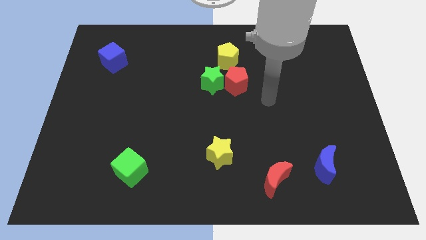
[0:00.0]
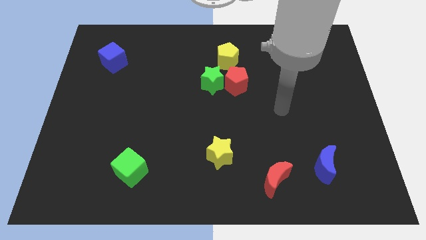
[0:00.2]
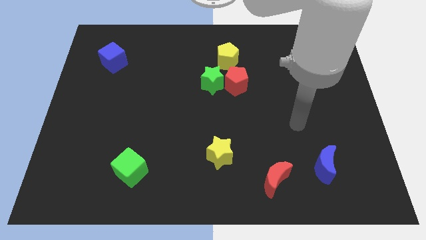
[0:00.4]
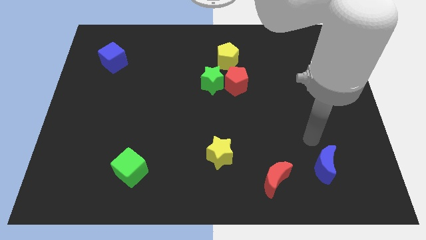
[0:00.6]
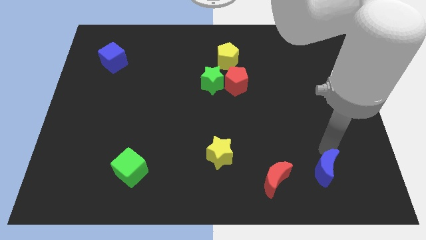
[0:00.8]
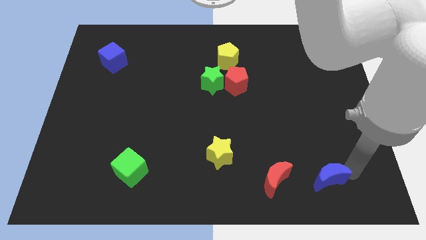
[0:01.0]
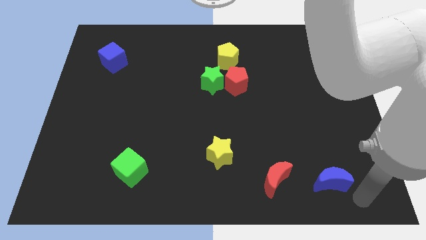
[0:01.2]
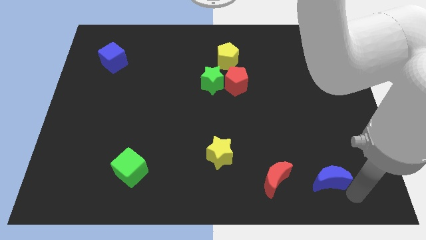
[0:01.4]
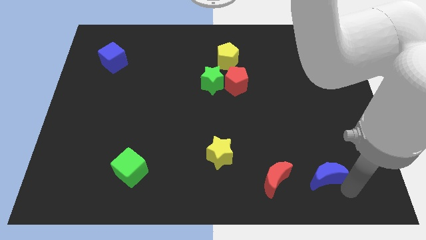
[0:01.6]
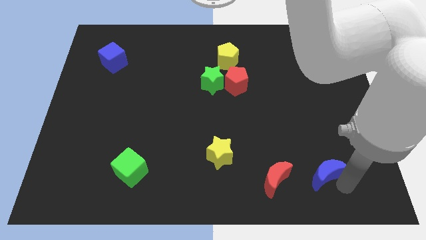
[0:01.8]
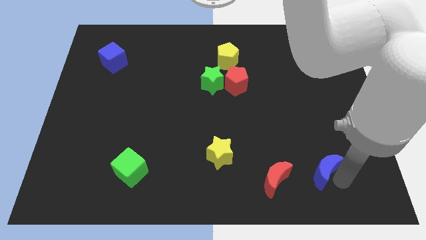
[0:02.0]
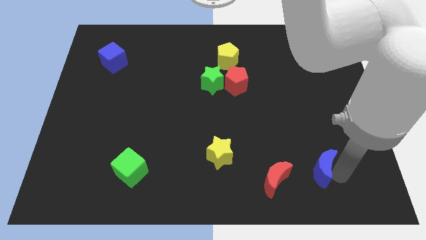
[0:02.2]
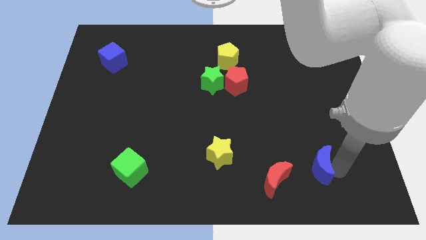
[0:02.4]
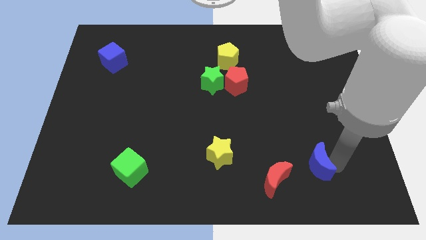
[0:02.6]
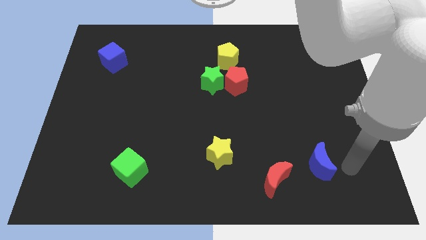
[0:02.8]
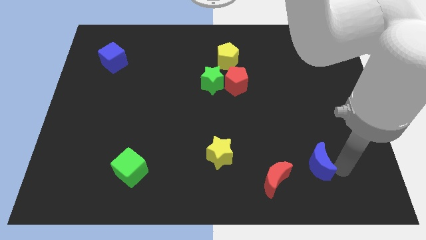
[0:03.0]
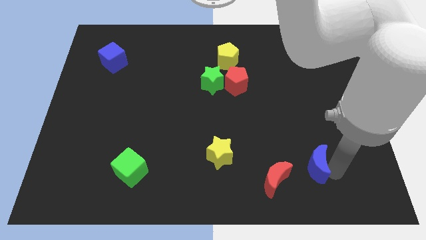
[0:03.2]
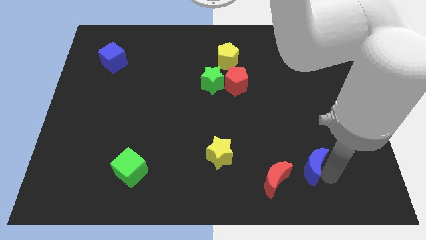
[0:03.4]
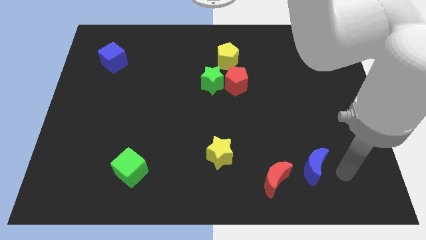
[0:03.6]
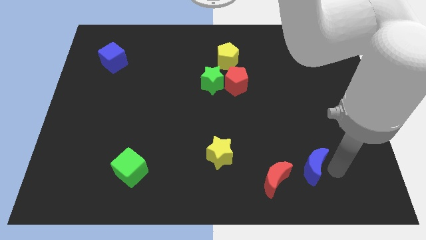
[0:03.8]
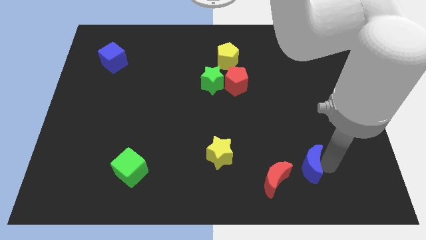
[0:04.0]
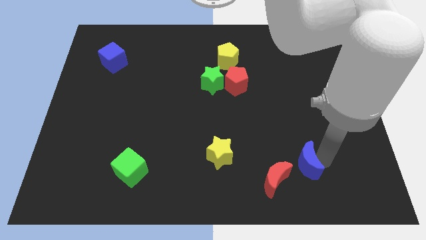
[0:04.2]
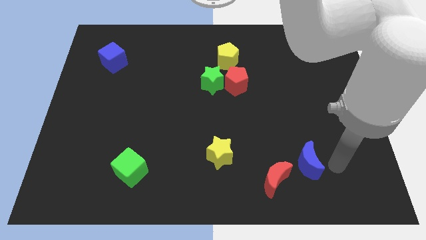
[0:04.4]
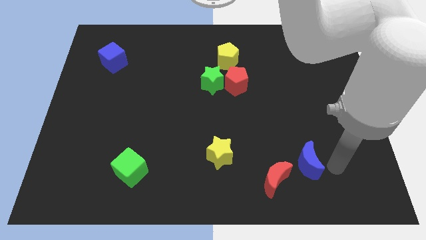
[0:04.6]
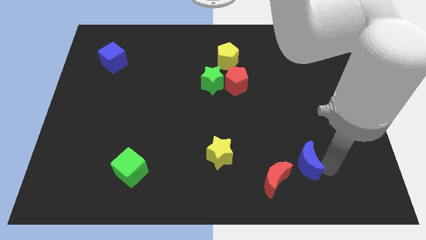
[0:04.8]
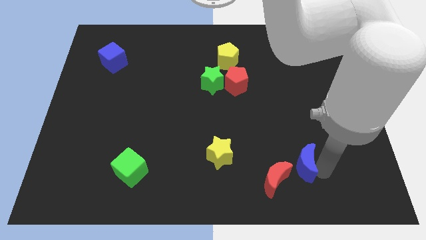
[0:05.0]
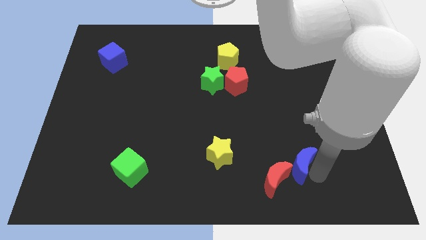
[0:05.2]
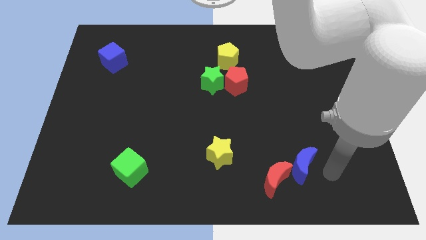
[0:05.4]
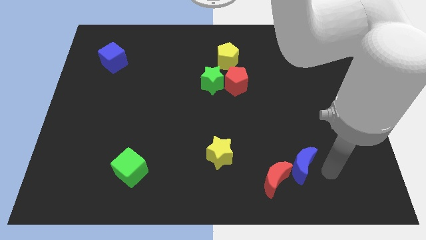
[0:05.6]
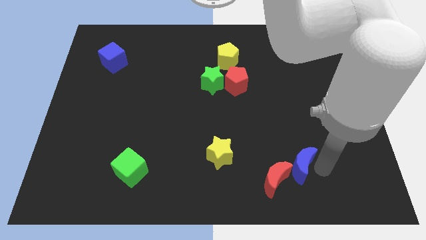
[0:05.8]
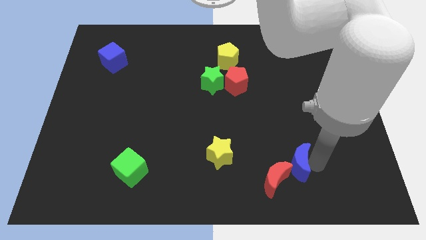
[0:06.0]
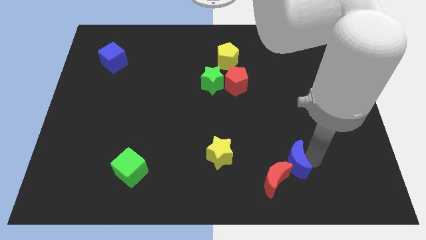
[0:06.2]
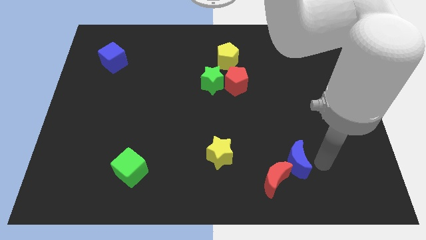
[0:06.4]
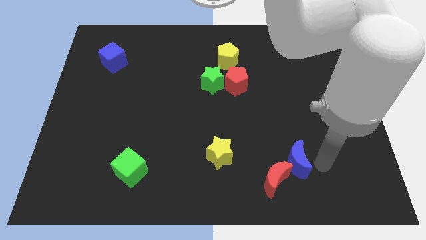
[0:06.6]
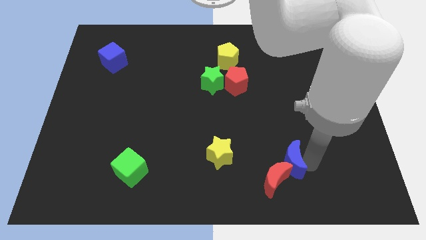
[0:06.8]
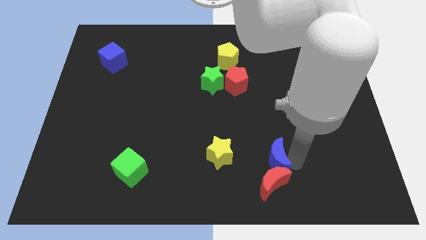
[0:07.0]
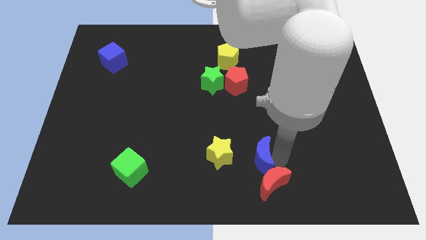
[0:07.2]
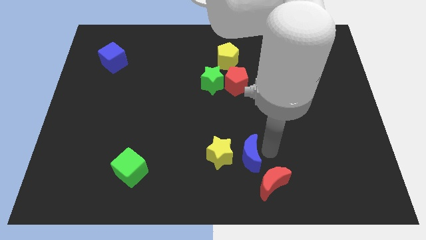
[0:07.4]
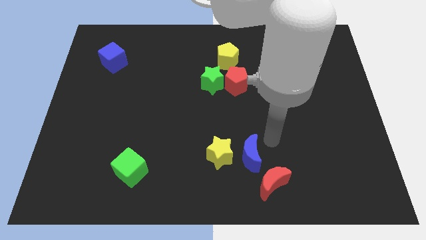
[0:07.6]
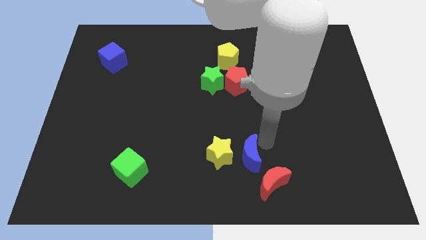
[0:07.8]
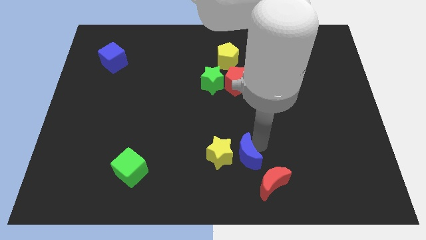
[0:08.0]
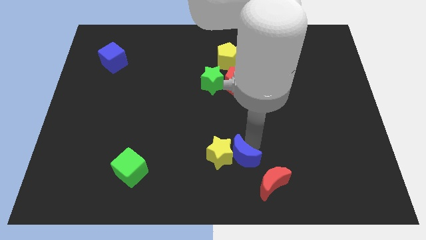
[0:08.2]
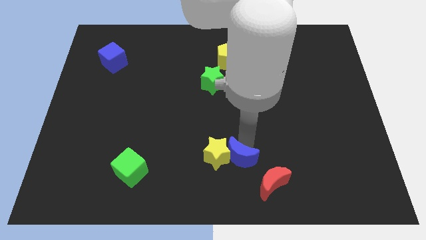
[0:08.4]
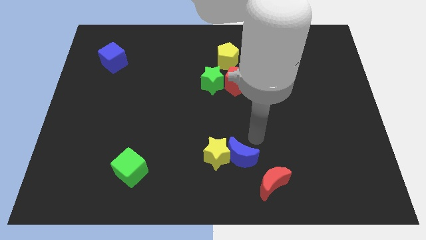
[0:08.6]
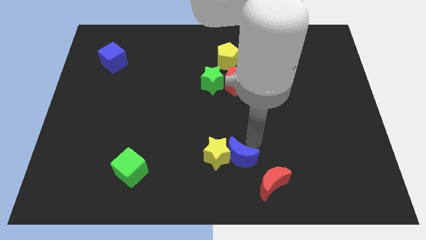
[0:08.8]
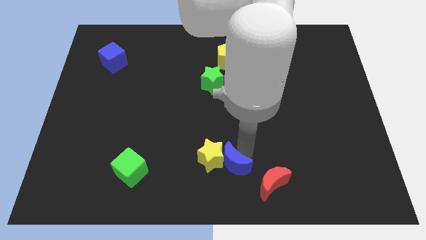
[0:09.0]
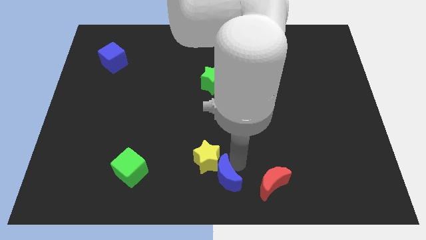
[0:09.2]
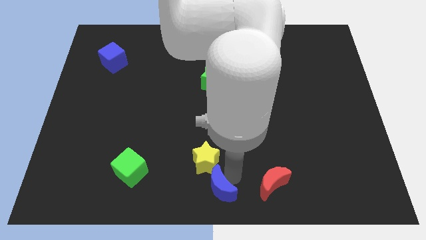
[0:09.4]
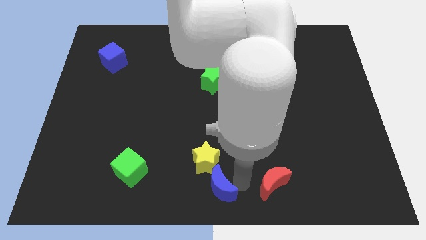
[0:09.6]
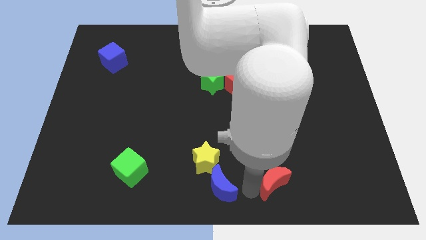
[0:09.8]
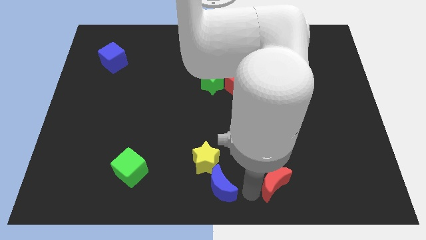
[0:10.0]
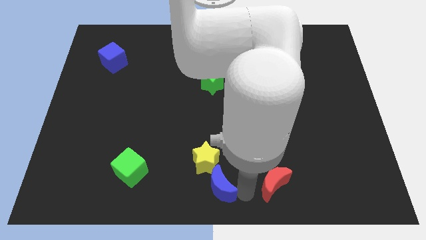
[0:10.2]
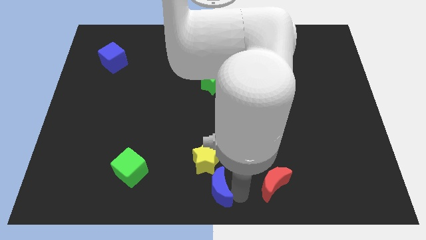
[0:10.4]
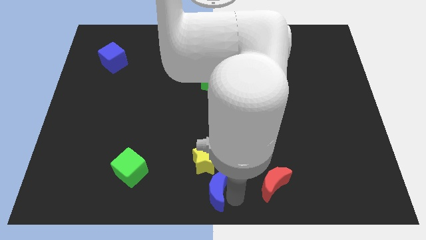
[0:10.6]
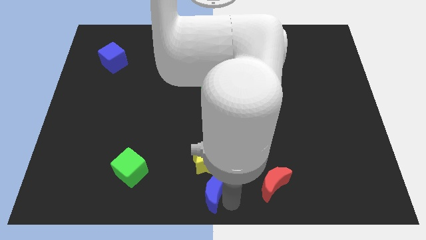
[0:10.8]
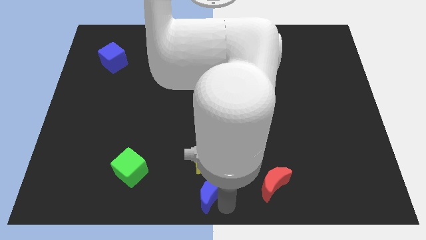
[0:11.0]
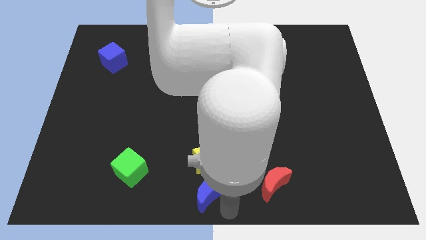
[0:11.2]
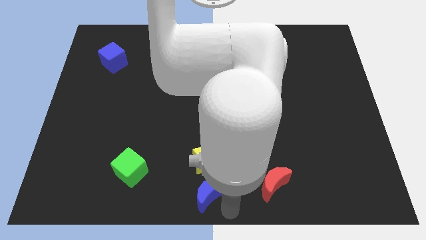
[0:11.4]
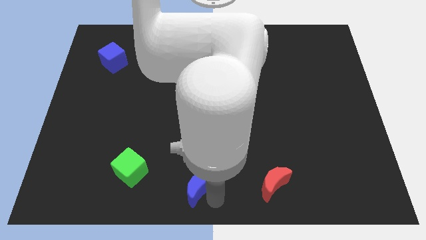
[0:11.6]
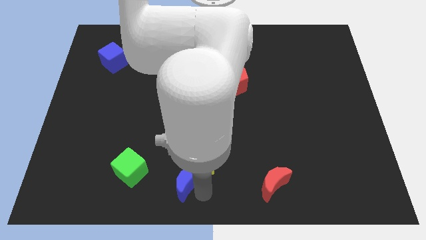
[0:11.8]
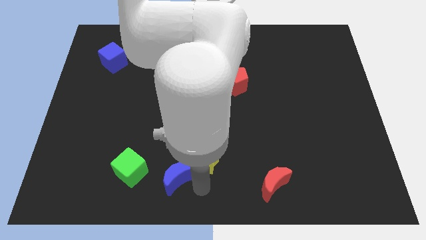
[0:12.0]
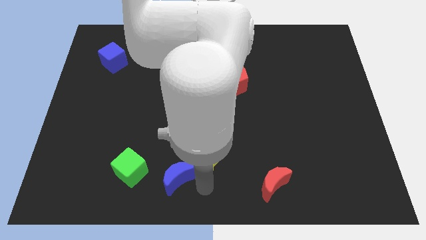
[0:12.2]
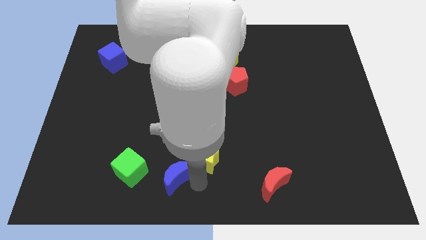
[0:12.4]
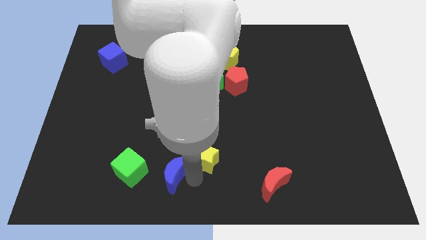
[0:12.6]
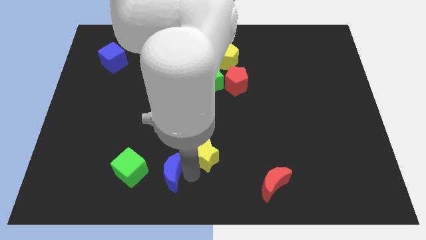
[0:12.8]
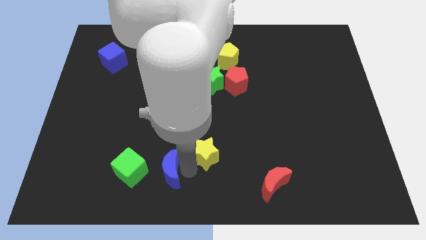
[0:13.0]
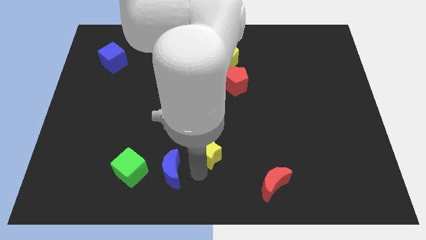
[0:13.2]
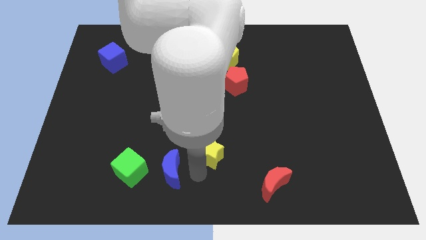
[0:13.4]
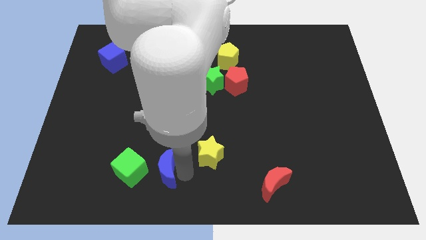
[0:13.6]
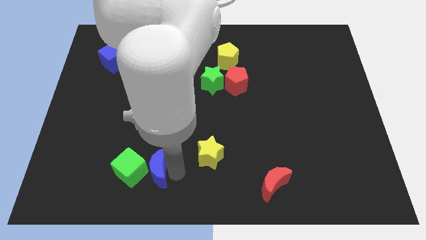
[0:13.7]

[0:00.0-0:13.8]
push the blue moon close to the green cube

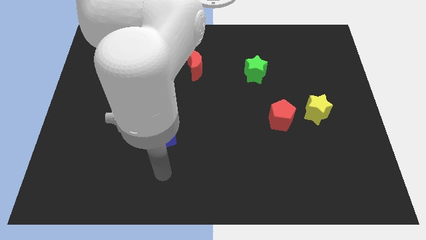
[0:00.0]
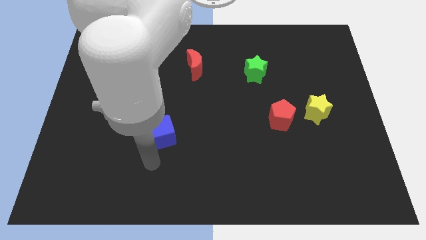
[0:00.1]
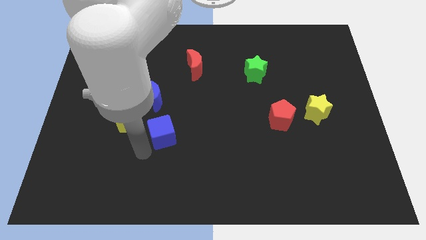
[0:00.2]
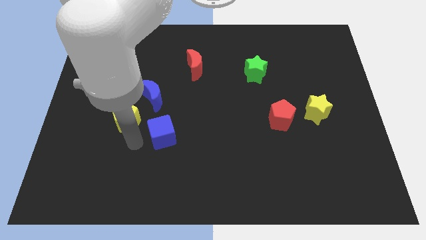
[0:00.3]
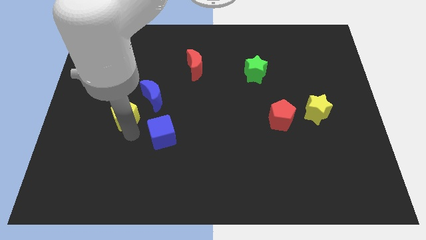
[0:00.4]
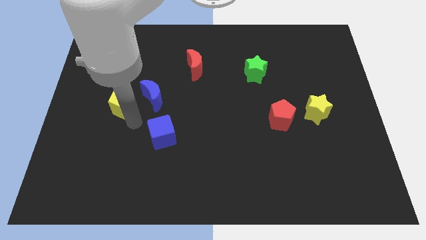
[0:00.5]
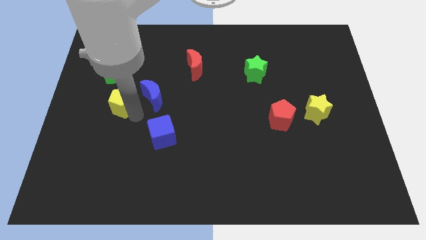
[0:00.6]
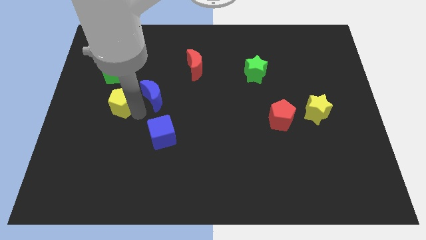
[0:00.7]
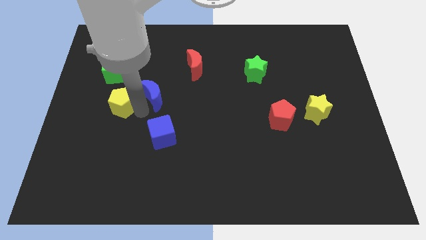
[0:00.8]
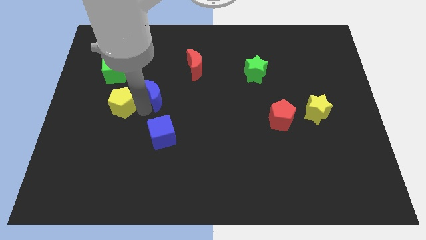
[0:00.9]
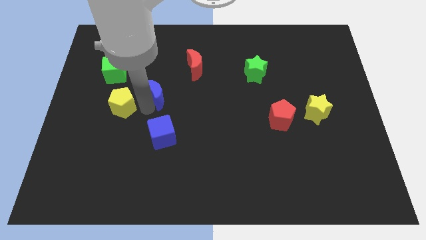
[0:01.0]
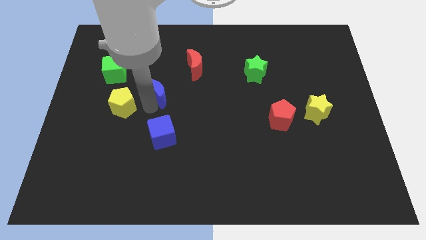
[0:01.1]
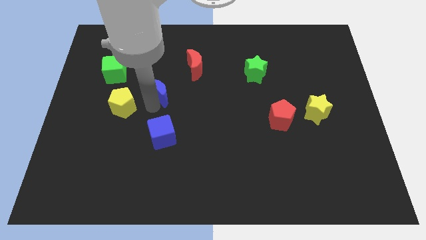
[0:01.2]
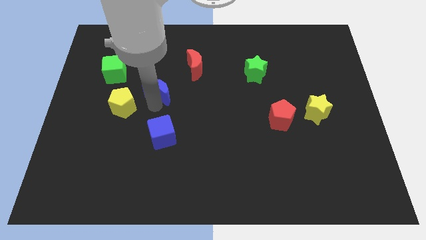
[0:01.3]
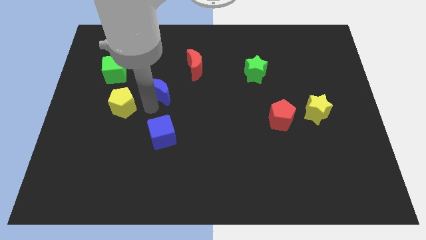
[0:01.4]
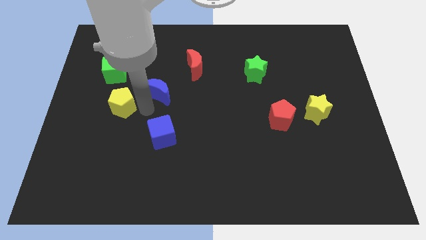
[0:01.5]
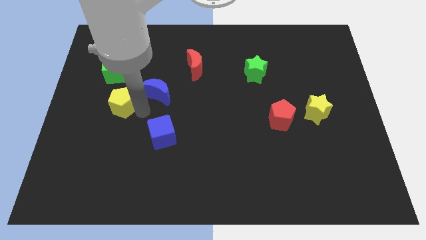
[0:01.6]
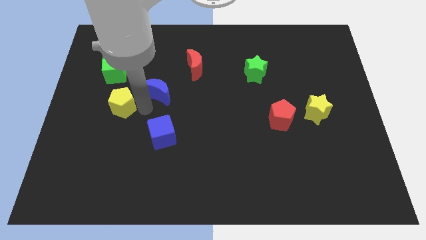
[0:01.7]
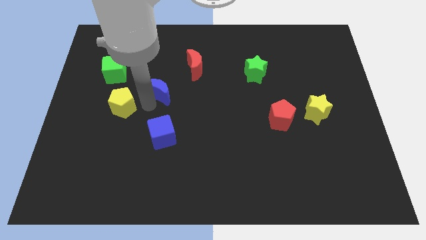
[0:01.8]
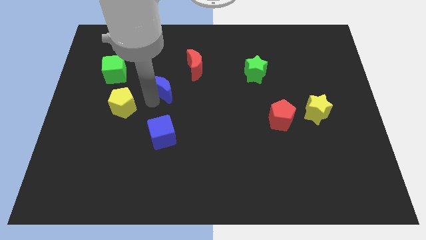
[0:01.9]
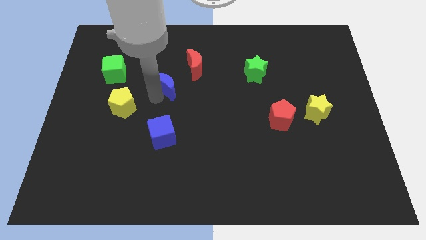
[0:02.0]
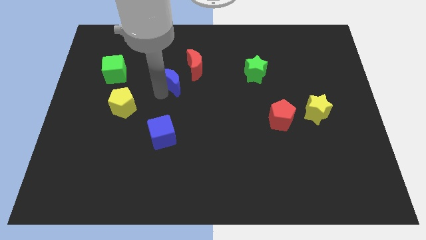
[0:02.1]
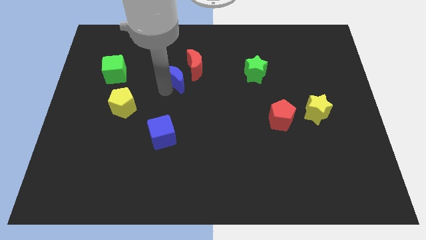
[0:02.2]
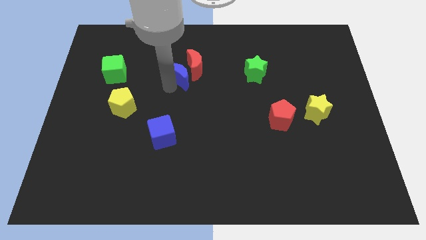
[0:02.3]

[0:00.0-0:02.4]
push the blue moon next to the red moon
